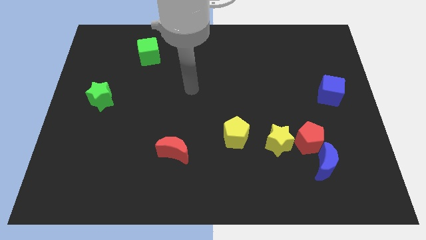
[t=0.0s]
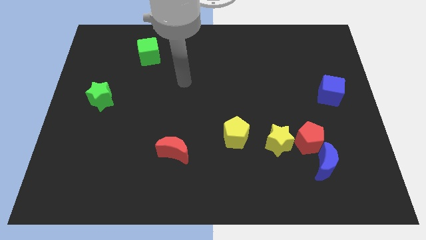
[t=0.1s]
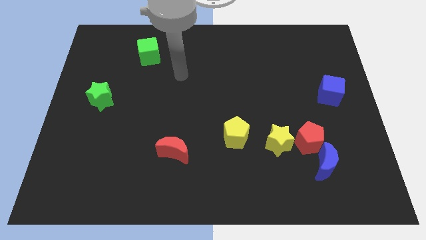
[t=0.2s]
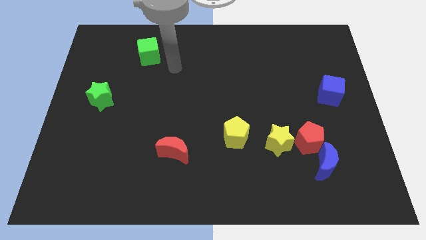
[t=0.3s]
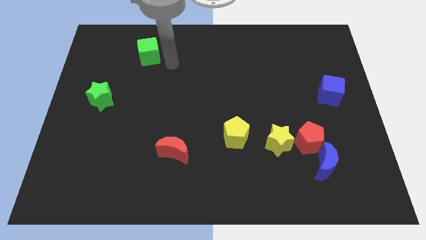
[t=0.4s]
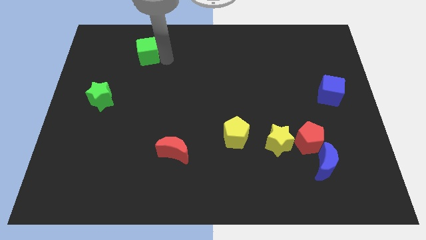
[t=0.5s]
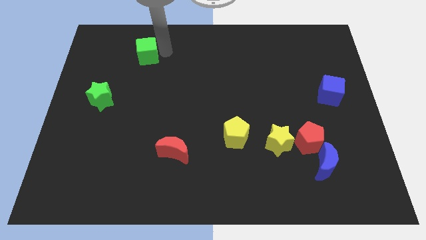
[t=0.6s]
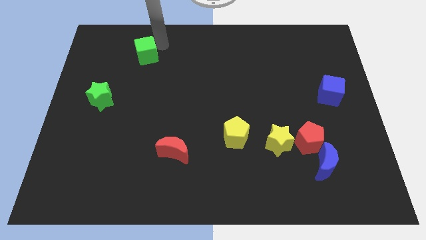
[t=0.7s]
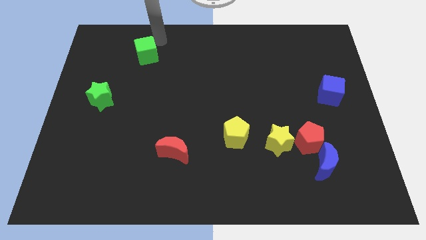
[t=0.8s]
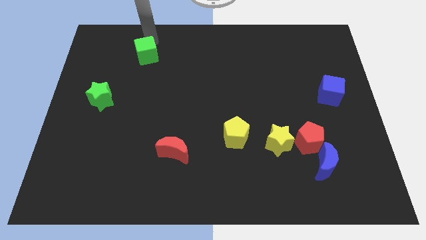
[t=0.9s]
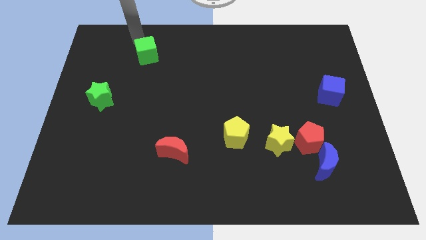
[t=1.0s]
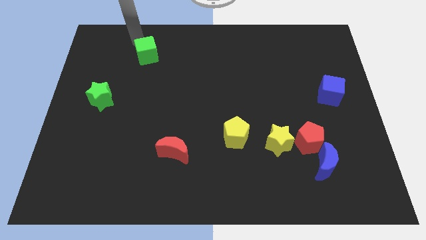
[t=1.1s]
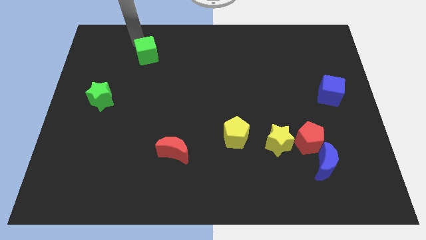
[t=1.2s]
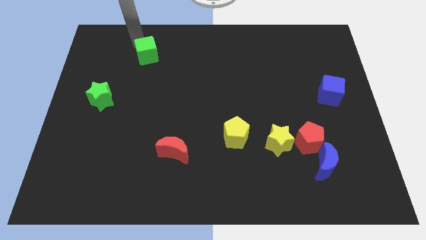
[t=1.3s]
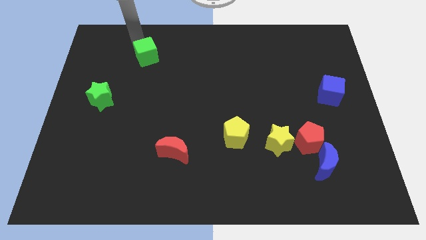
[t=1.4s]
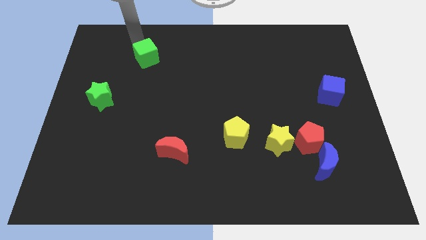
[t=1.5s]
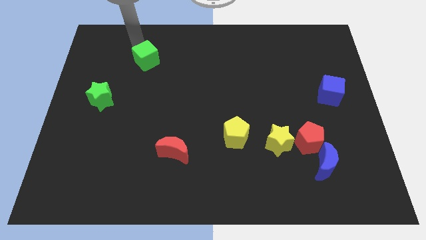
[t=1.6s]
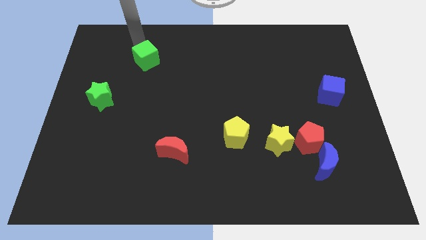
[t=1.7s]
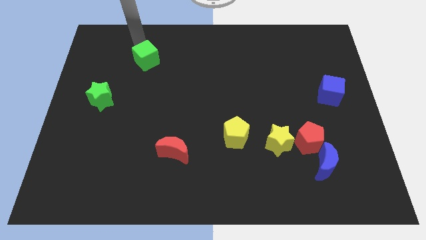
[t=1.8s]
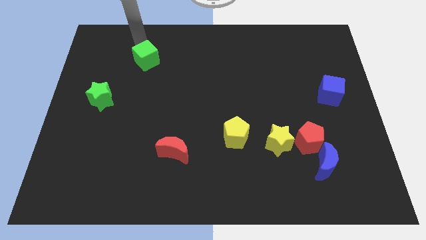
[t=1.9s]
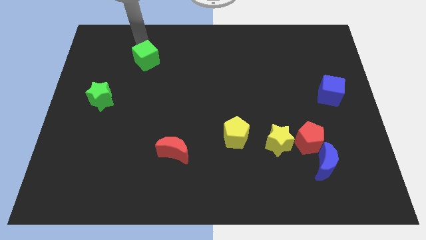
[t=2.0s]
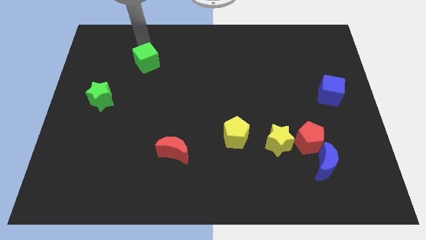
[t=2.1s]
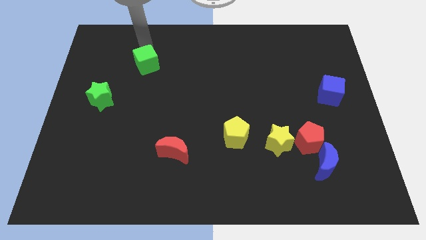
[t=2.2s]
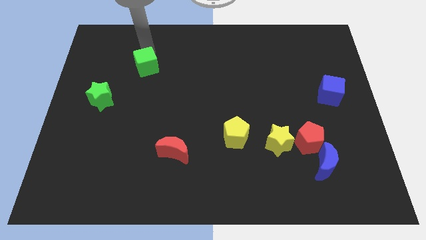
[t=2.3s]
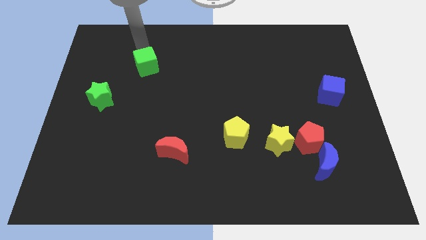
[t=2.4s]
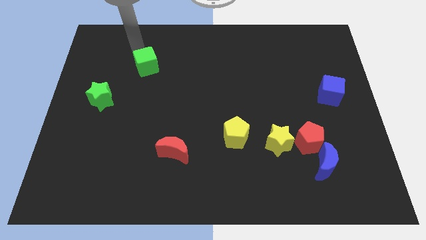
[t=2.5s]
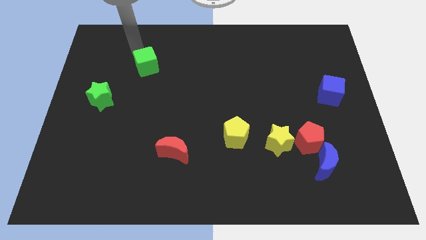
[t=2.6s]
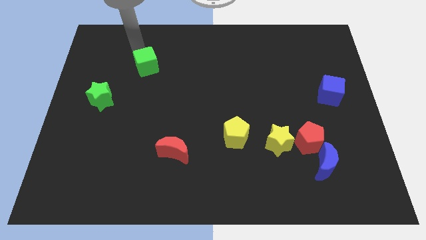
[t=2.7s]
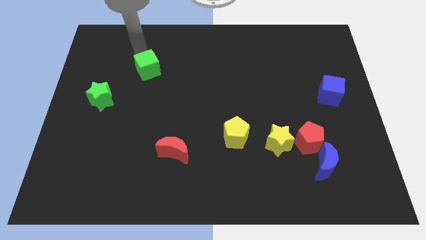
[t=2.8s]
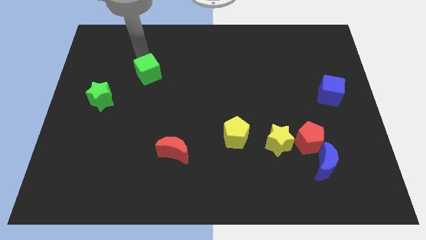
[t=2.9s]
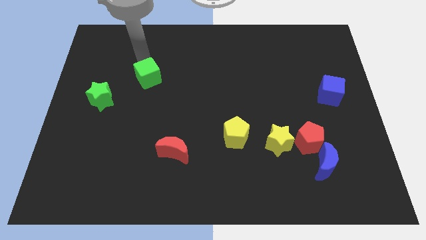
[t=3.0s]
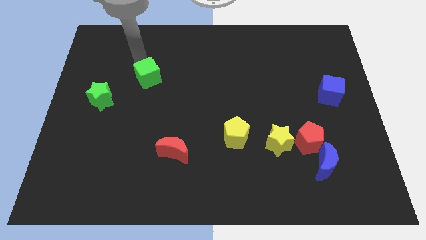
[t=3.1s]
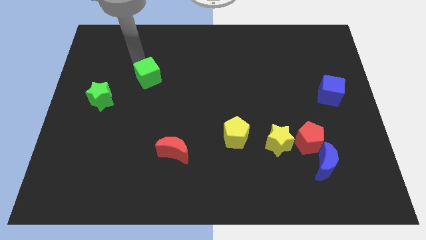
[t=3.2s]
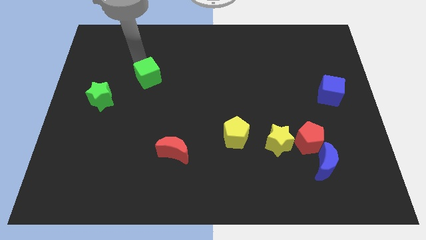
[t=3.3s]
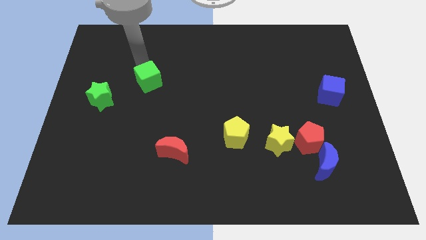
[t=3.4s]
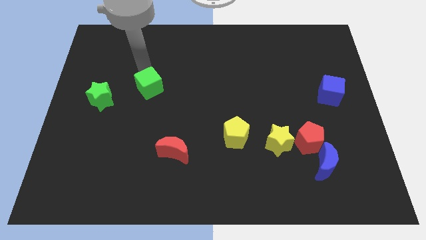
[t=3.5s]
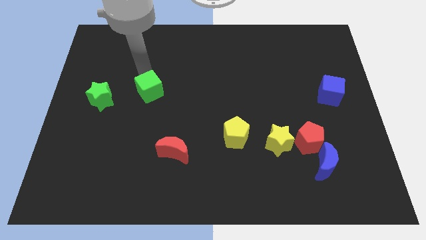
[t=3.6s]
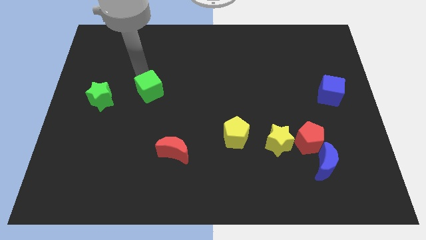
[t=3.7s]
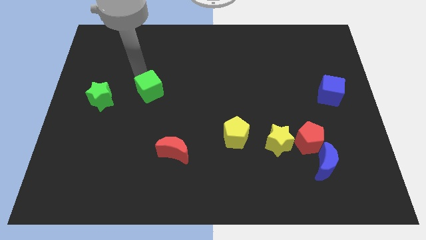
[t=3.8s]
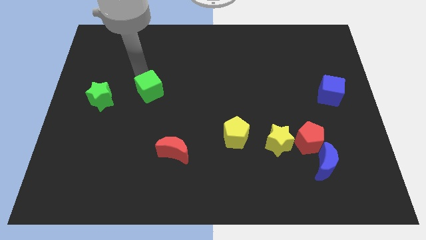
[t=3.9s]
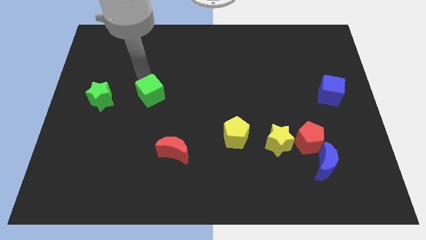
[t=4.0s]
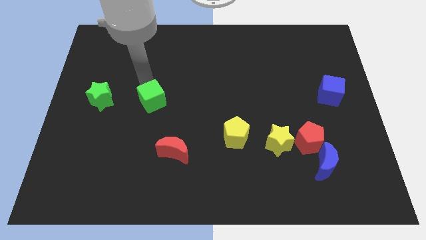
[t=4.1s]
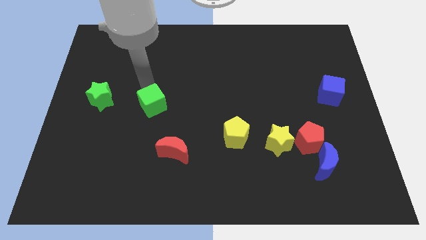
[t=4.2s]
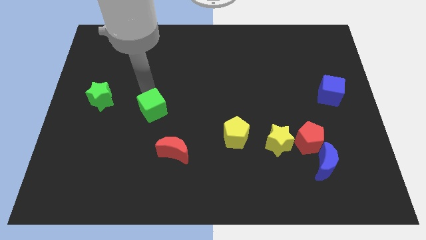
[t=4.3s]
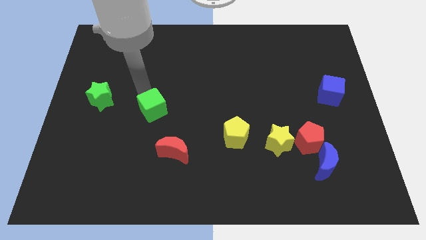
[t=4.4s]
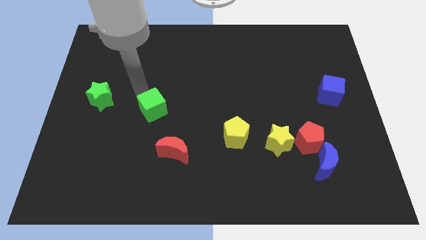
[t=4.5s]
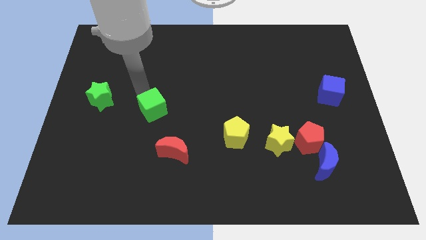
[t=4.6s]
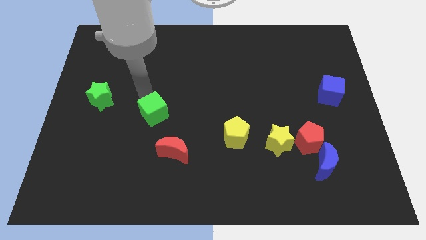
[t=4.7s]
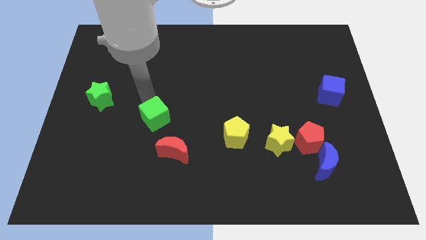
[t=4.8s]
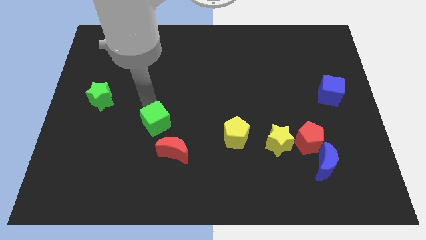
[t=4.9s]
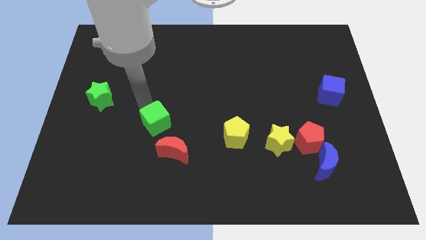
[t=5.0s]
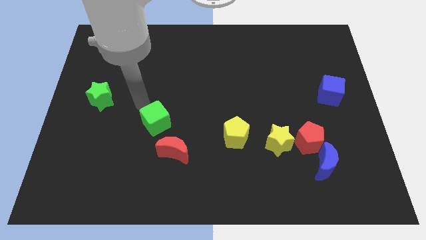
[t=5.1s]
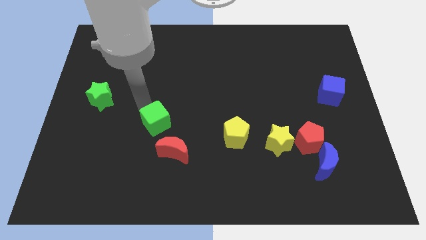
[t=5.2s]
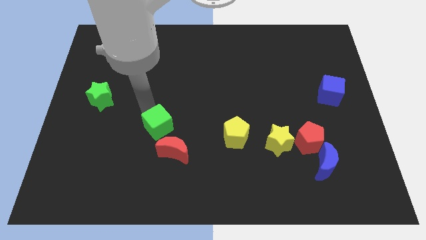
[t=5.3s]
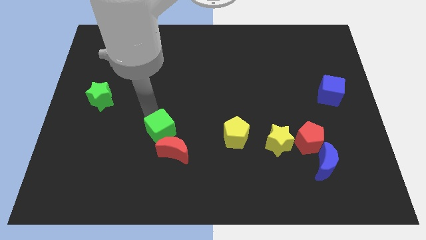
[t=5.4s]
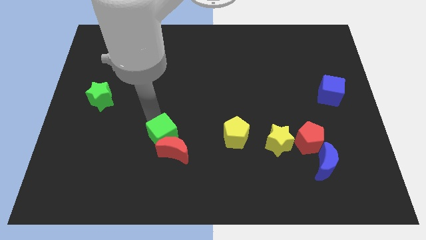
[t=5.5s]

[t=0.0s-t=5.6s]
put the green cube towards the red moon

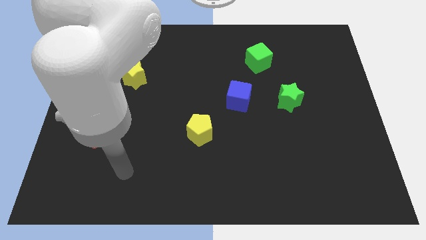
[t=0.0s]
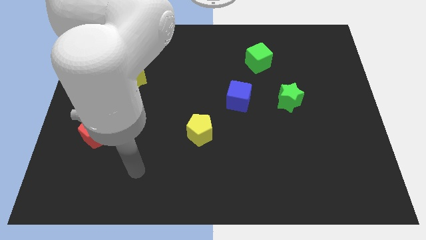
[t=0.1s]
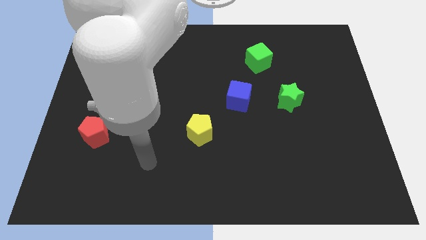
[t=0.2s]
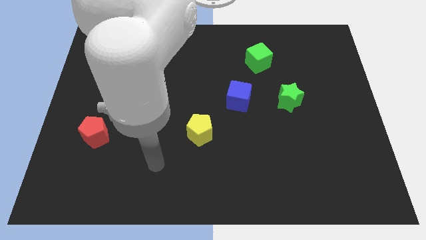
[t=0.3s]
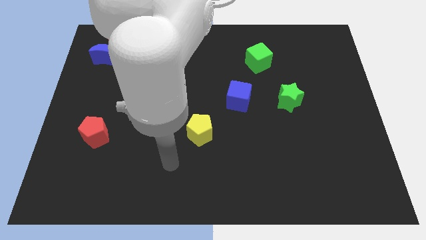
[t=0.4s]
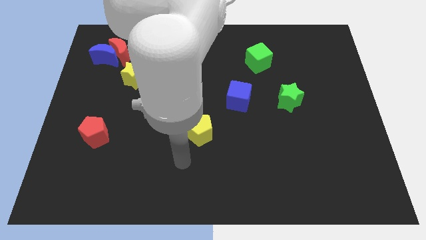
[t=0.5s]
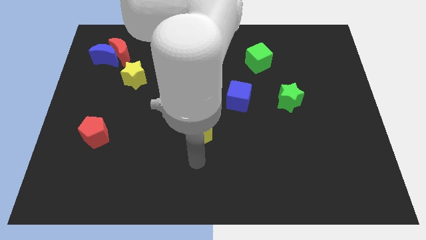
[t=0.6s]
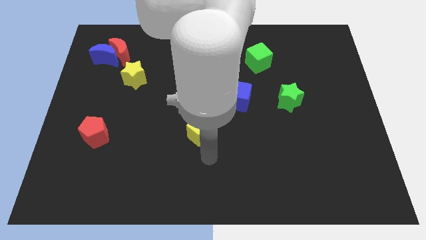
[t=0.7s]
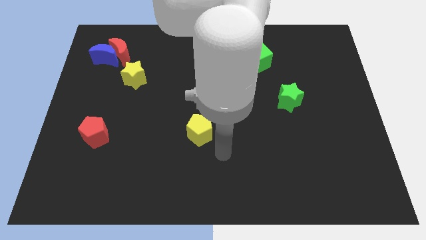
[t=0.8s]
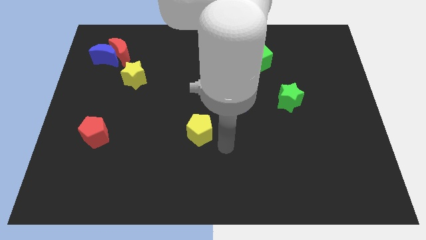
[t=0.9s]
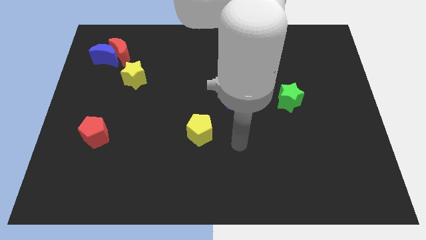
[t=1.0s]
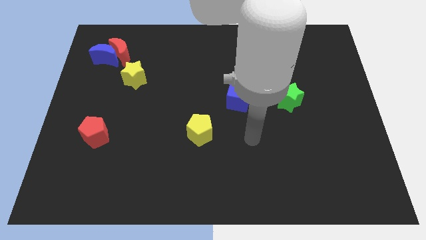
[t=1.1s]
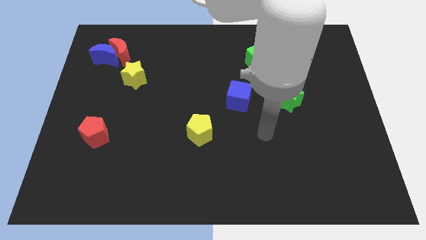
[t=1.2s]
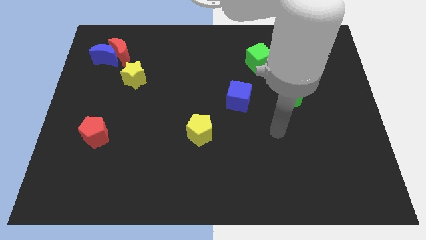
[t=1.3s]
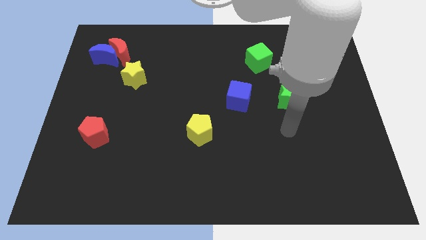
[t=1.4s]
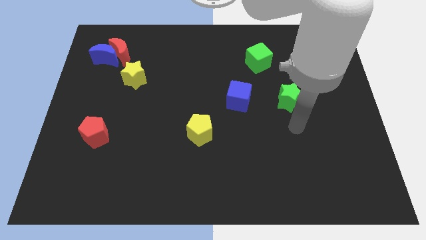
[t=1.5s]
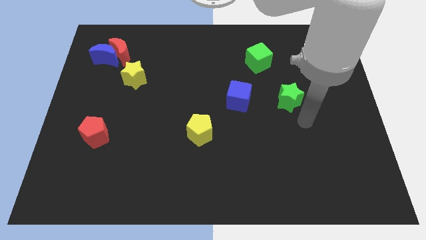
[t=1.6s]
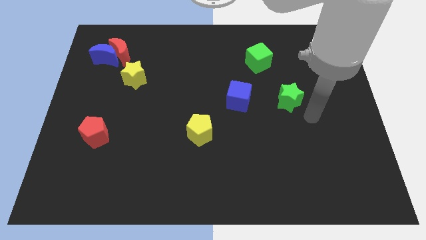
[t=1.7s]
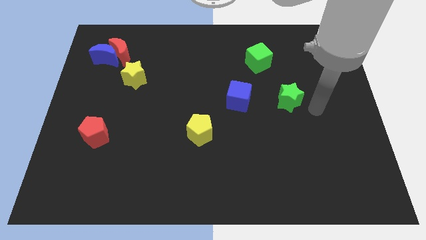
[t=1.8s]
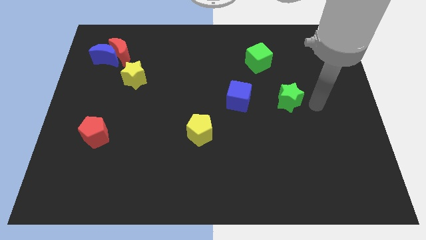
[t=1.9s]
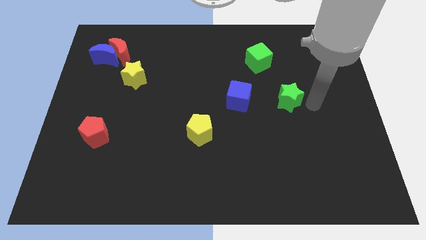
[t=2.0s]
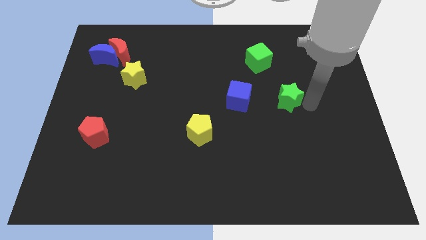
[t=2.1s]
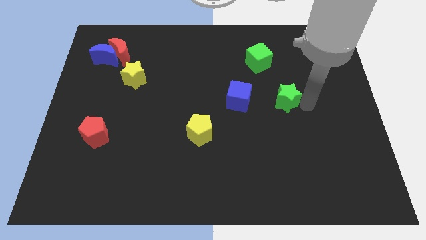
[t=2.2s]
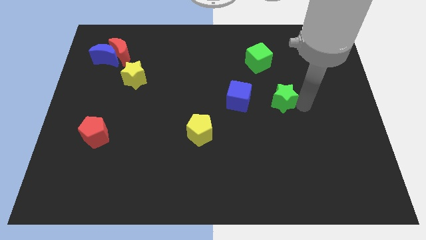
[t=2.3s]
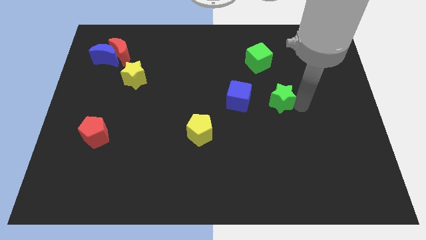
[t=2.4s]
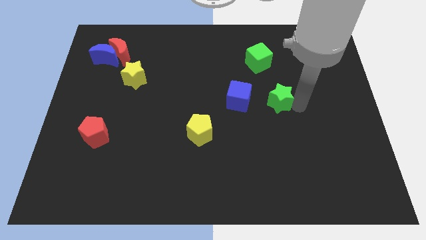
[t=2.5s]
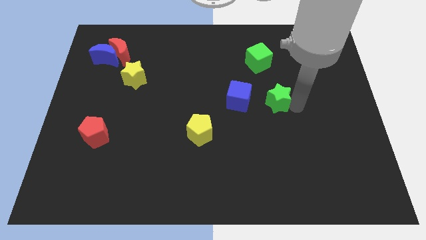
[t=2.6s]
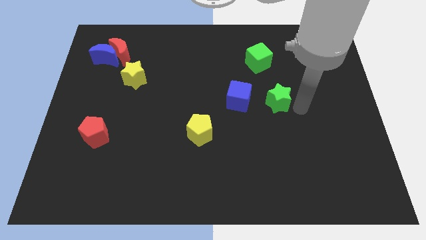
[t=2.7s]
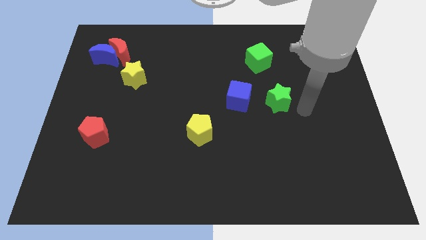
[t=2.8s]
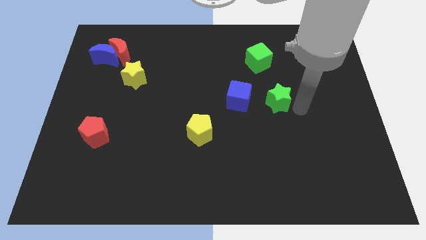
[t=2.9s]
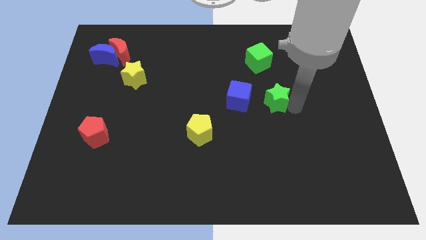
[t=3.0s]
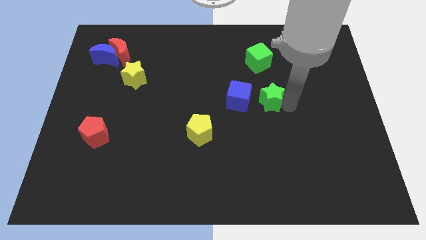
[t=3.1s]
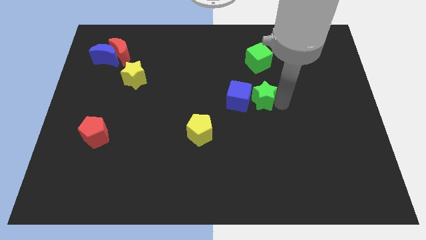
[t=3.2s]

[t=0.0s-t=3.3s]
push the green star close to the blue cube
